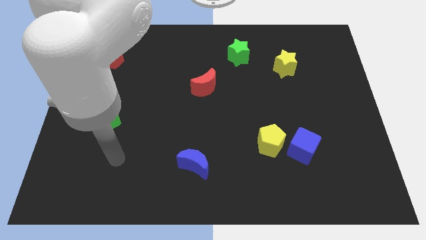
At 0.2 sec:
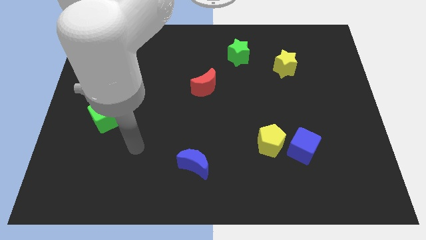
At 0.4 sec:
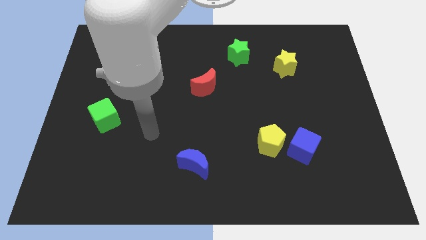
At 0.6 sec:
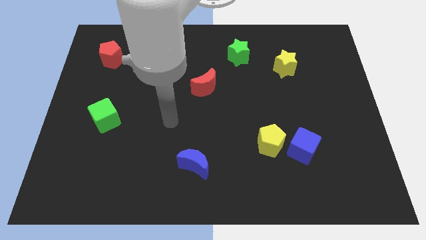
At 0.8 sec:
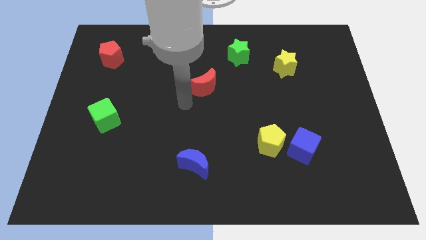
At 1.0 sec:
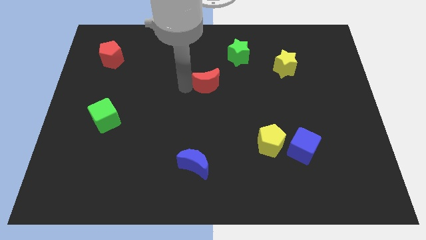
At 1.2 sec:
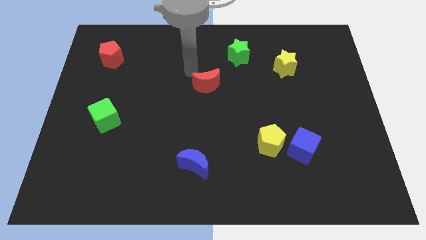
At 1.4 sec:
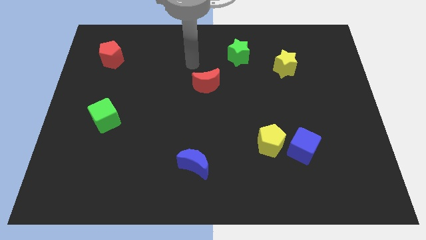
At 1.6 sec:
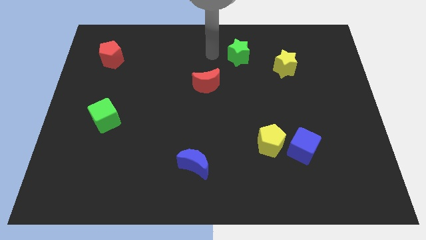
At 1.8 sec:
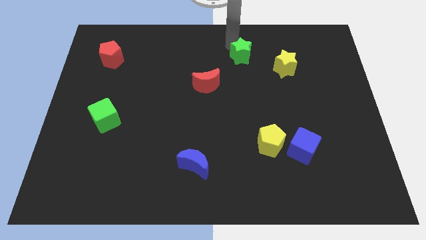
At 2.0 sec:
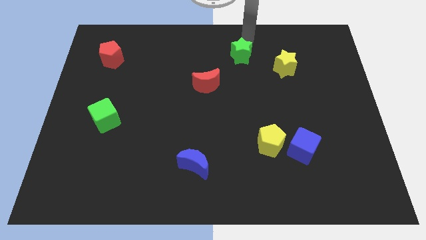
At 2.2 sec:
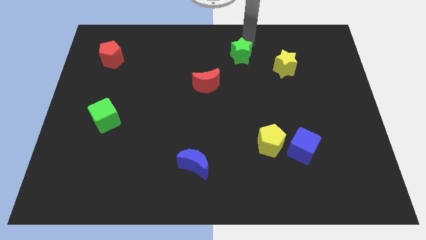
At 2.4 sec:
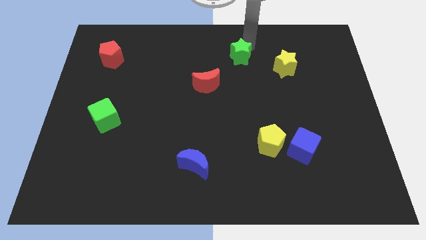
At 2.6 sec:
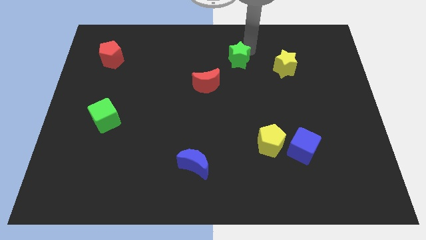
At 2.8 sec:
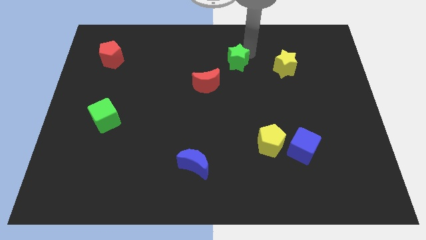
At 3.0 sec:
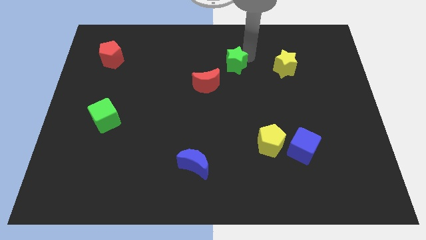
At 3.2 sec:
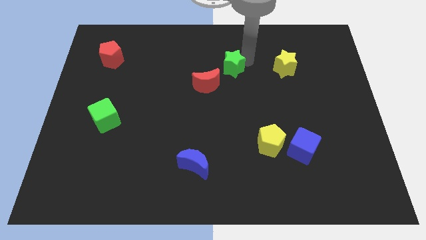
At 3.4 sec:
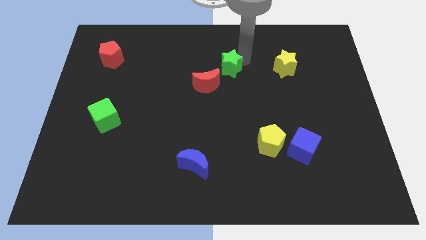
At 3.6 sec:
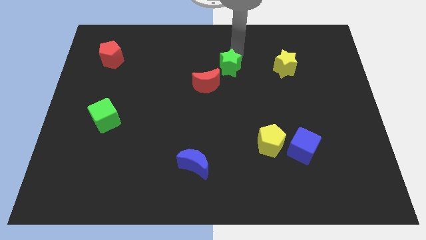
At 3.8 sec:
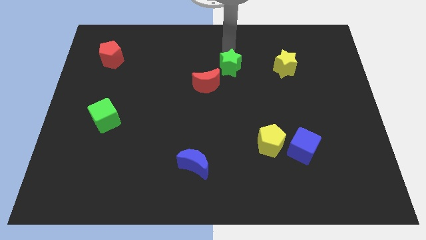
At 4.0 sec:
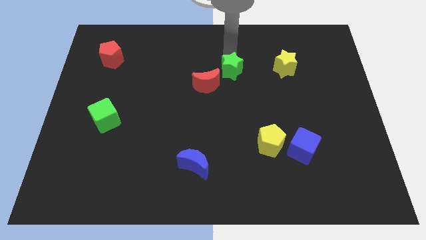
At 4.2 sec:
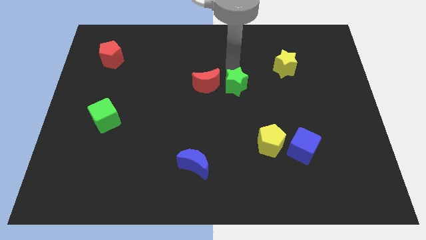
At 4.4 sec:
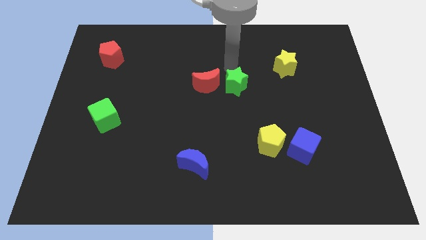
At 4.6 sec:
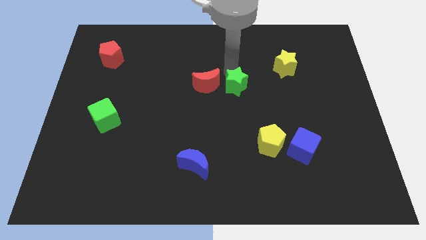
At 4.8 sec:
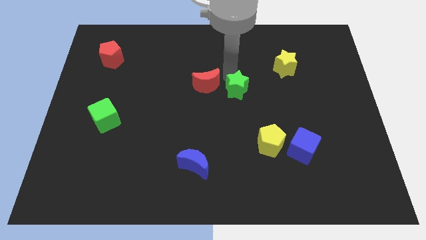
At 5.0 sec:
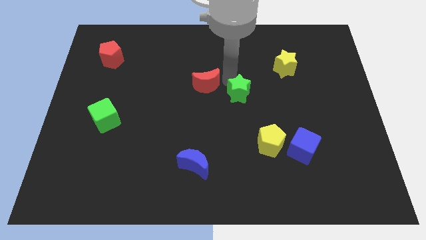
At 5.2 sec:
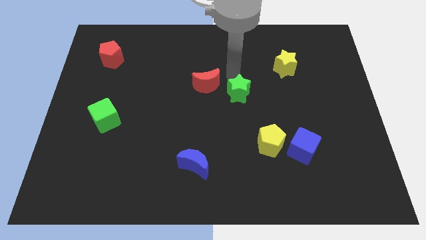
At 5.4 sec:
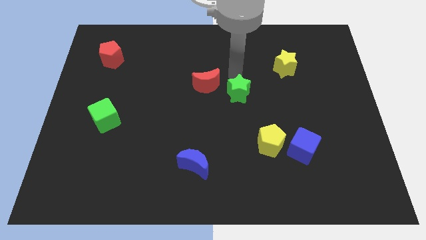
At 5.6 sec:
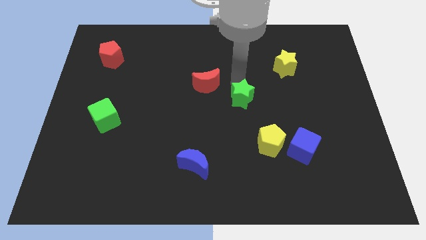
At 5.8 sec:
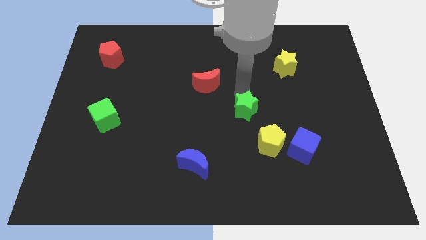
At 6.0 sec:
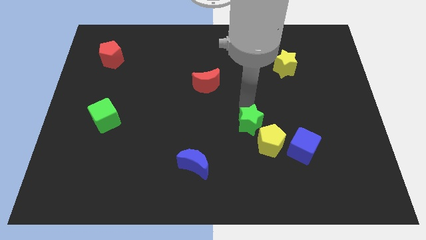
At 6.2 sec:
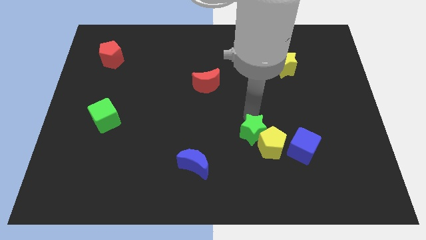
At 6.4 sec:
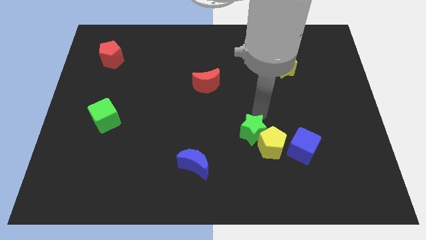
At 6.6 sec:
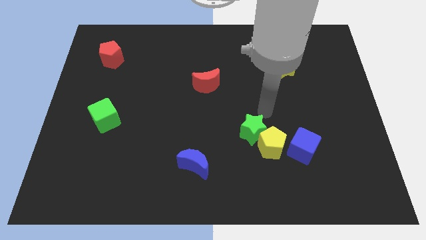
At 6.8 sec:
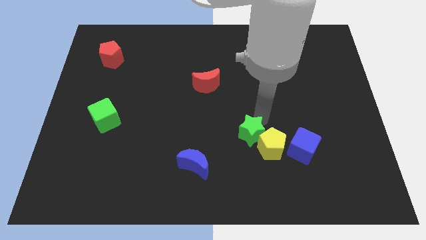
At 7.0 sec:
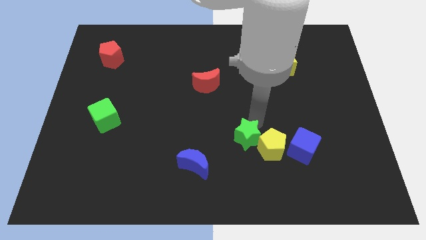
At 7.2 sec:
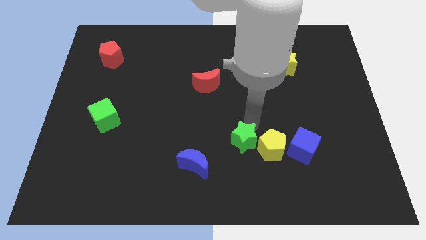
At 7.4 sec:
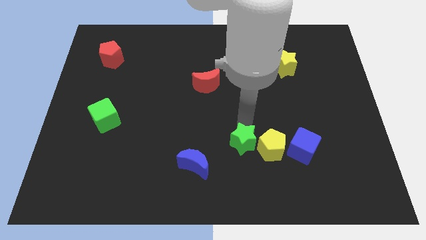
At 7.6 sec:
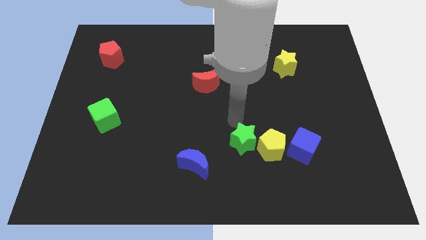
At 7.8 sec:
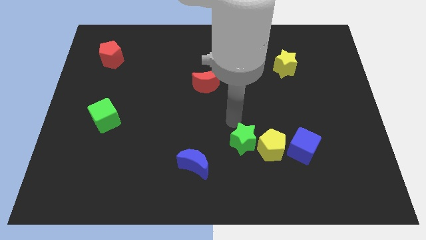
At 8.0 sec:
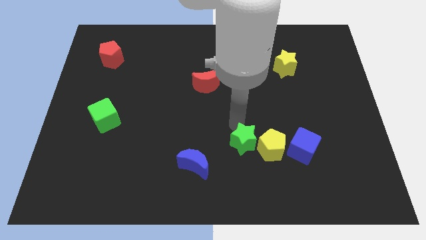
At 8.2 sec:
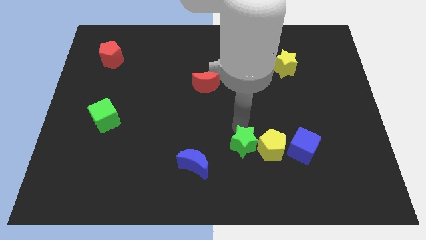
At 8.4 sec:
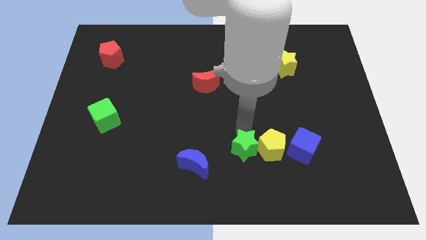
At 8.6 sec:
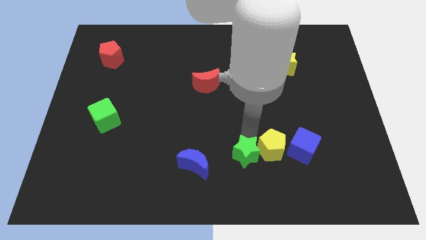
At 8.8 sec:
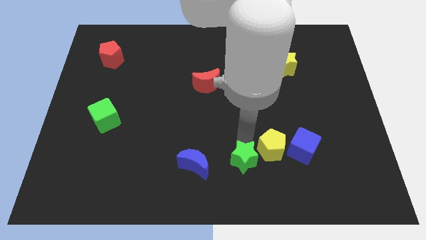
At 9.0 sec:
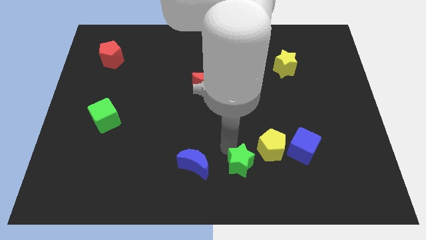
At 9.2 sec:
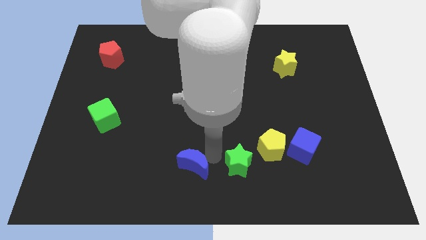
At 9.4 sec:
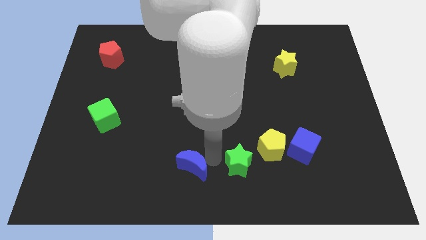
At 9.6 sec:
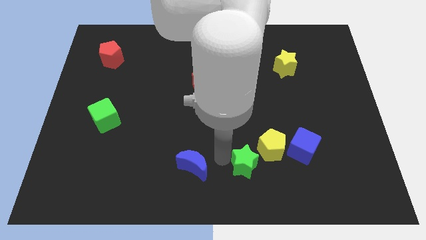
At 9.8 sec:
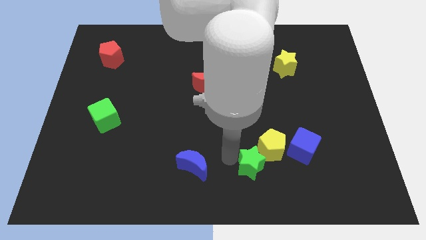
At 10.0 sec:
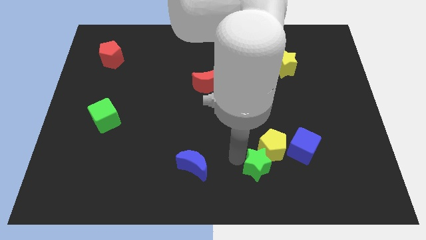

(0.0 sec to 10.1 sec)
move the green star to the bottom left of the blue cube

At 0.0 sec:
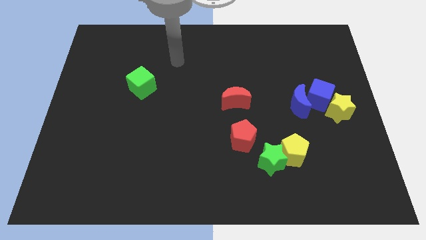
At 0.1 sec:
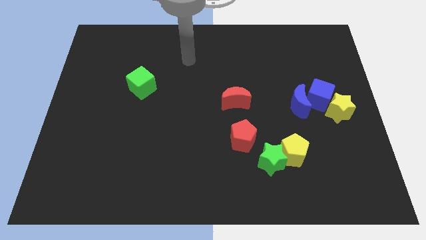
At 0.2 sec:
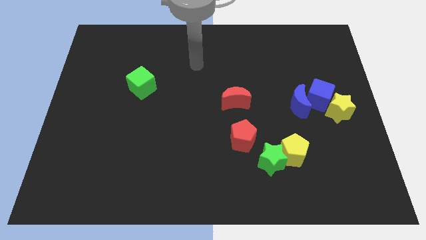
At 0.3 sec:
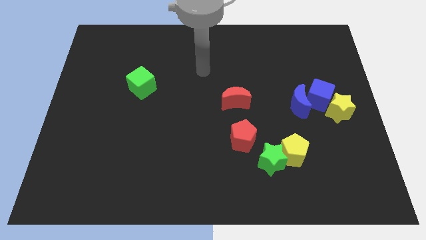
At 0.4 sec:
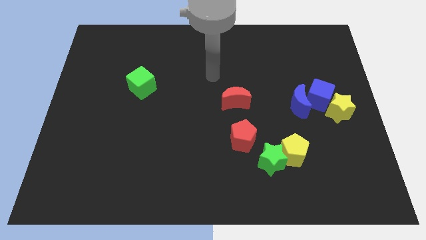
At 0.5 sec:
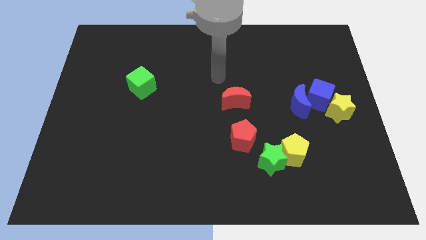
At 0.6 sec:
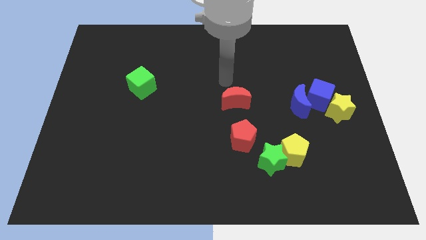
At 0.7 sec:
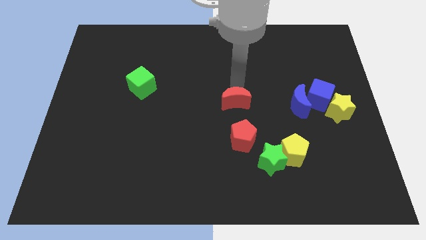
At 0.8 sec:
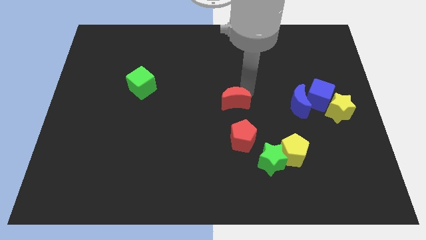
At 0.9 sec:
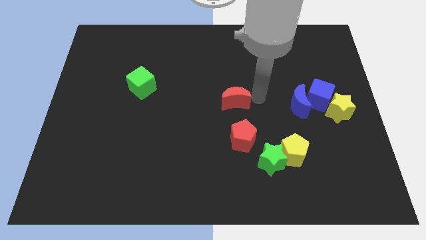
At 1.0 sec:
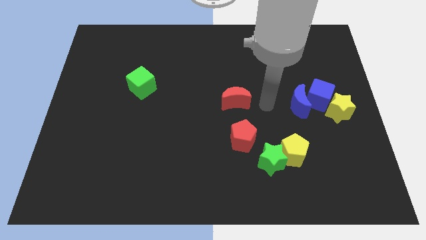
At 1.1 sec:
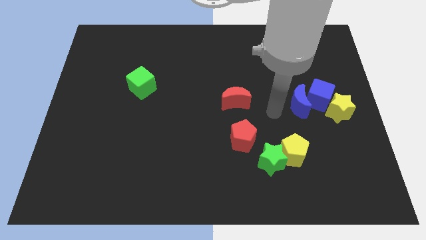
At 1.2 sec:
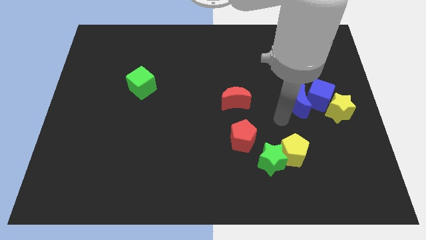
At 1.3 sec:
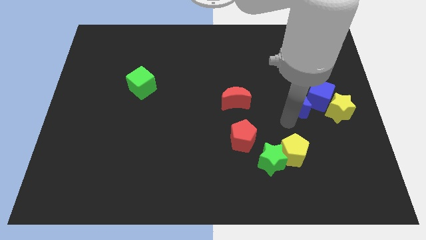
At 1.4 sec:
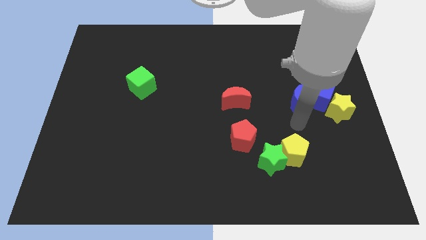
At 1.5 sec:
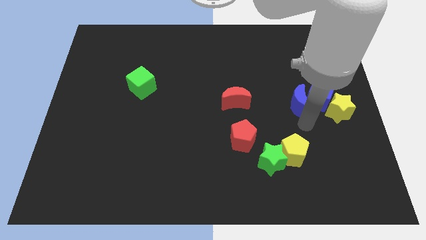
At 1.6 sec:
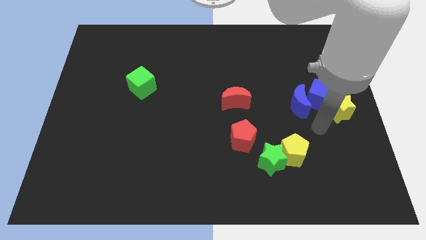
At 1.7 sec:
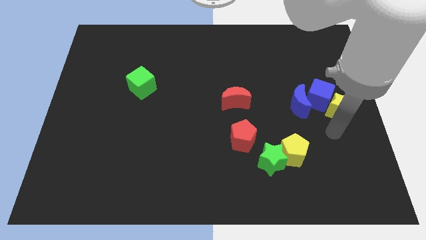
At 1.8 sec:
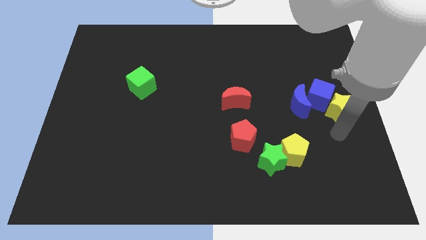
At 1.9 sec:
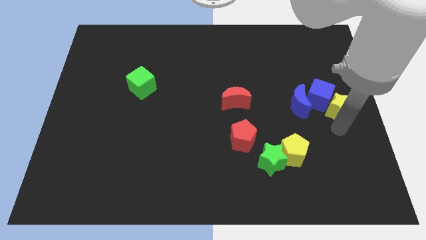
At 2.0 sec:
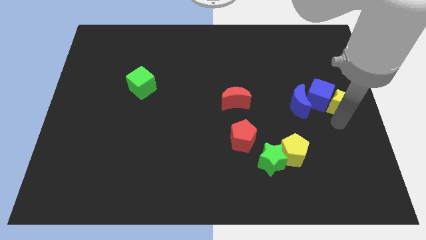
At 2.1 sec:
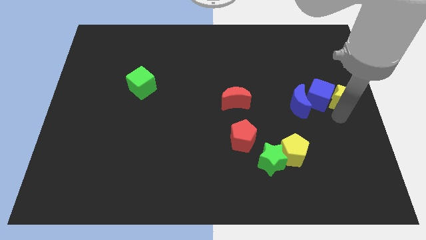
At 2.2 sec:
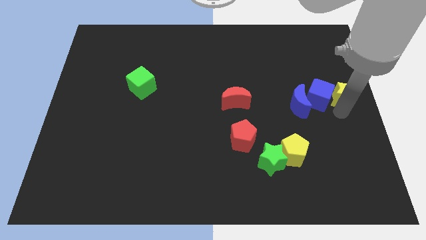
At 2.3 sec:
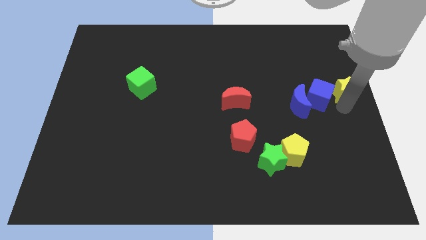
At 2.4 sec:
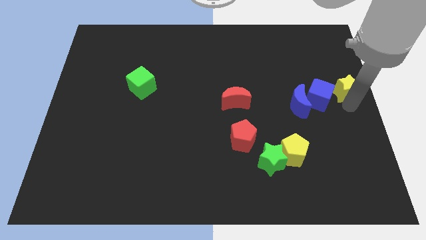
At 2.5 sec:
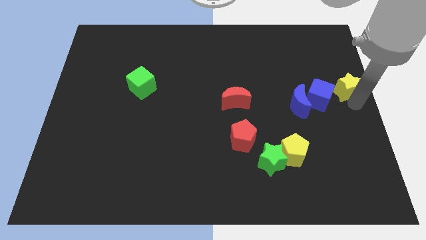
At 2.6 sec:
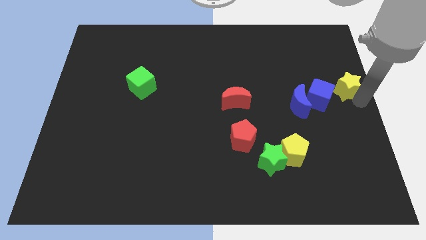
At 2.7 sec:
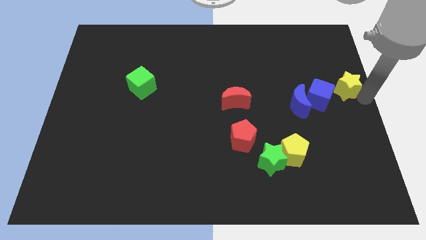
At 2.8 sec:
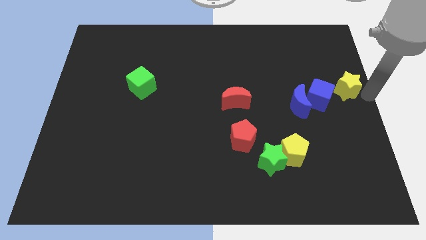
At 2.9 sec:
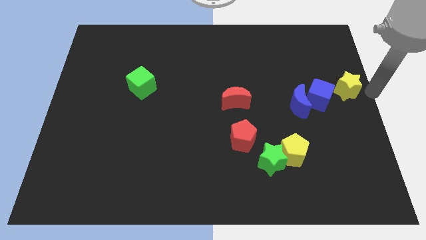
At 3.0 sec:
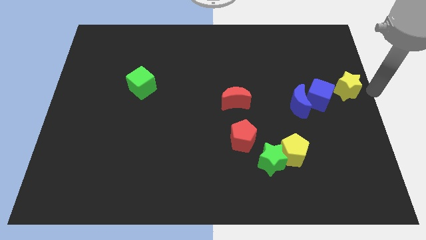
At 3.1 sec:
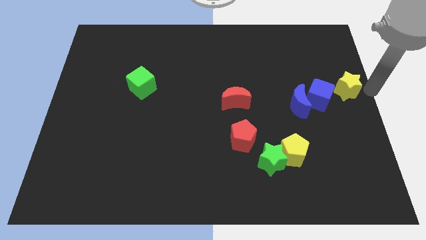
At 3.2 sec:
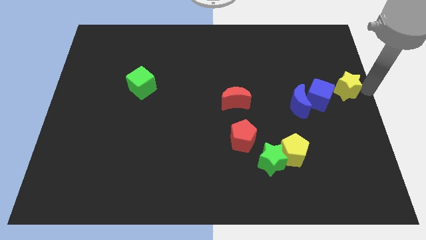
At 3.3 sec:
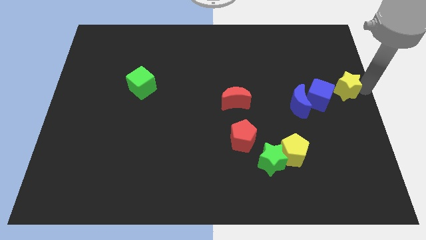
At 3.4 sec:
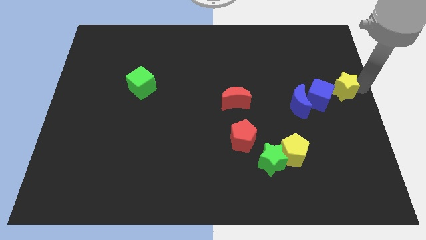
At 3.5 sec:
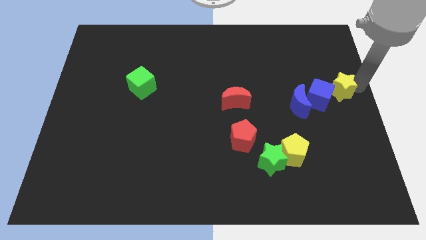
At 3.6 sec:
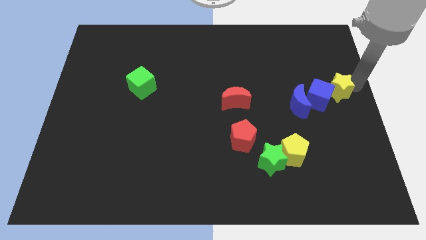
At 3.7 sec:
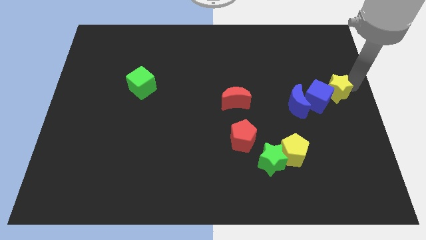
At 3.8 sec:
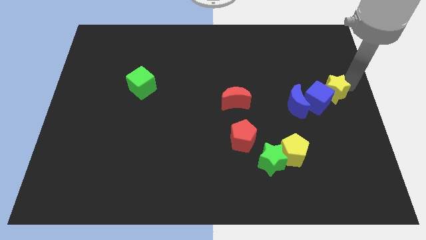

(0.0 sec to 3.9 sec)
push the yellow star to the top right side of the blue moon
